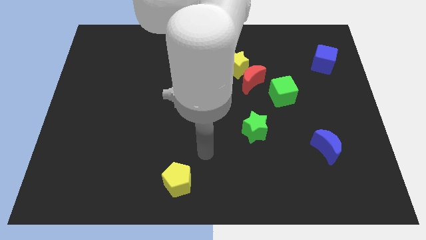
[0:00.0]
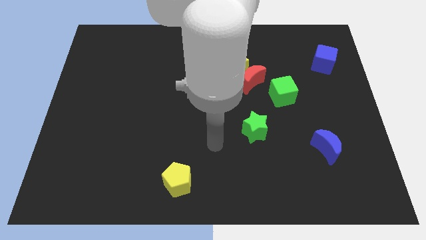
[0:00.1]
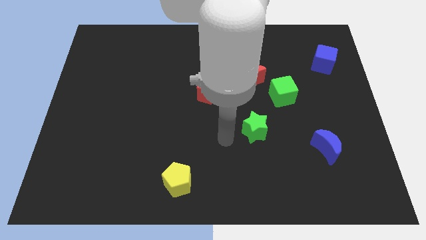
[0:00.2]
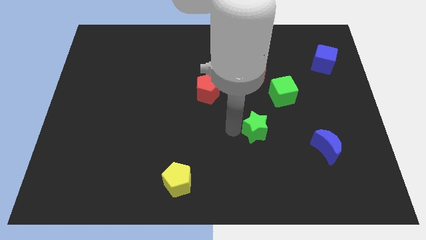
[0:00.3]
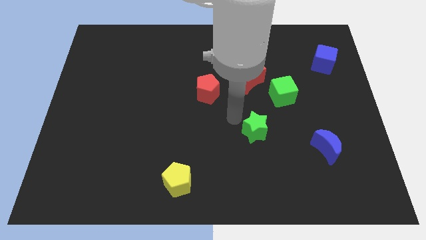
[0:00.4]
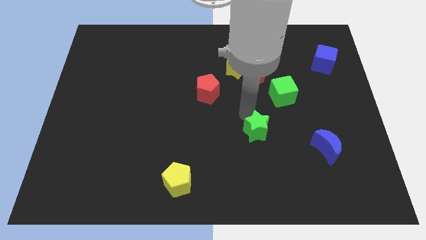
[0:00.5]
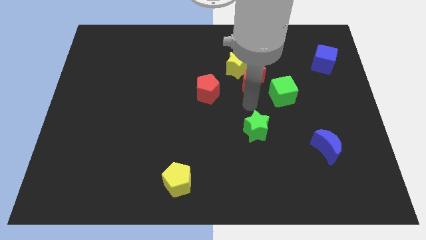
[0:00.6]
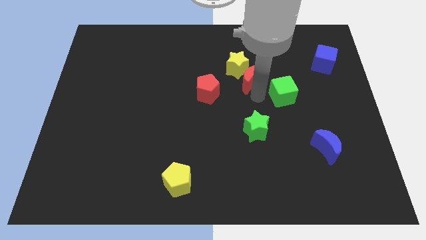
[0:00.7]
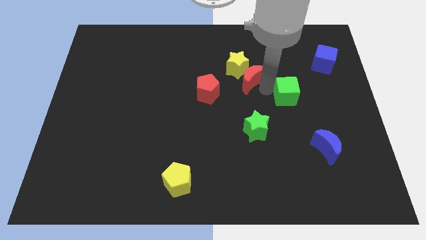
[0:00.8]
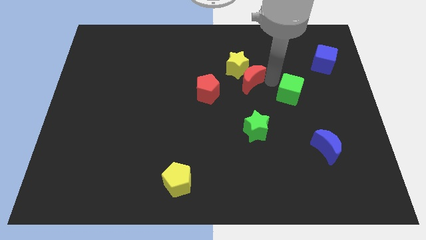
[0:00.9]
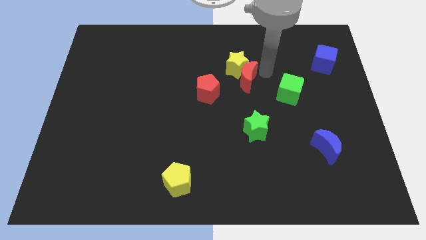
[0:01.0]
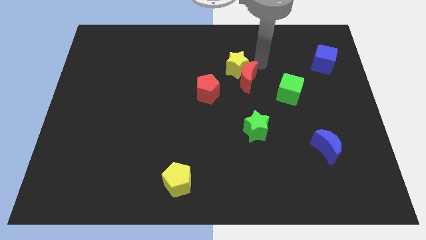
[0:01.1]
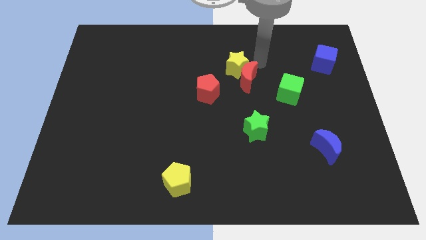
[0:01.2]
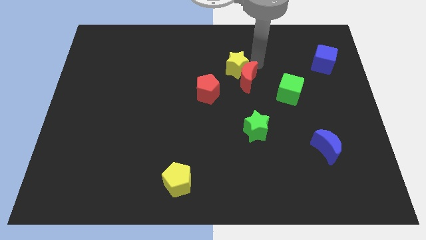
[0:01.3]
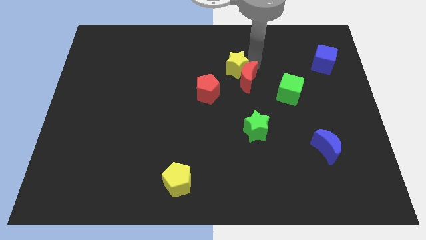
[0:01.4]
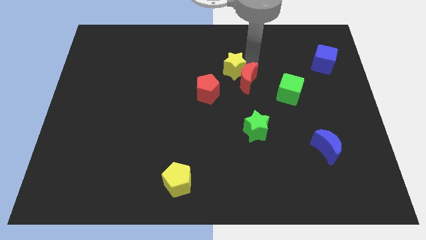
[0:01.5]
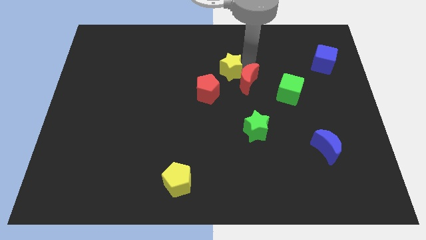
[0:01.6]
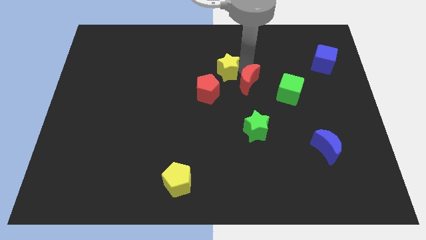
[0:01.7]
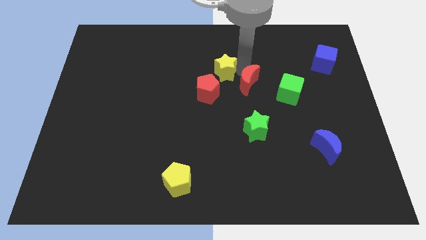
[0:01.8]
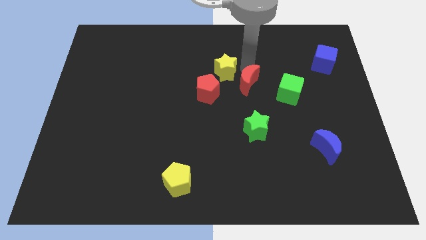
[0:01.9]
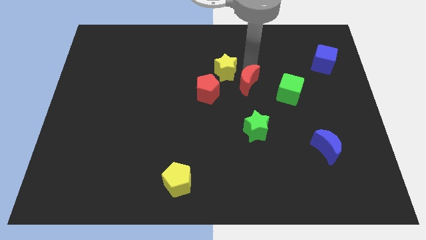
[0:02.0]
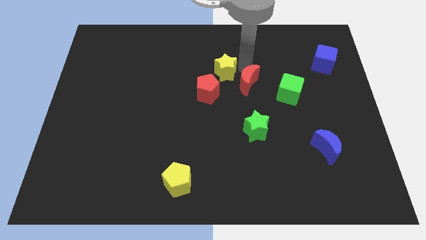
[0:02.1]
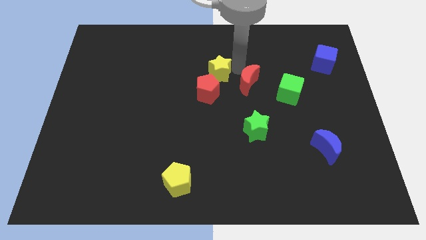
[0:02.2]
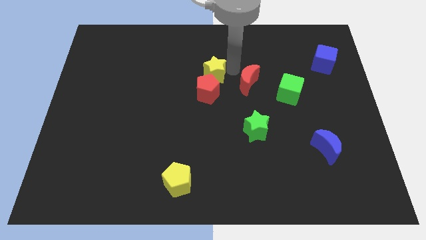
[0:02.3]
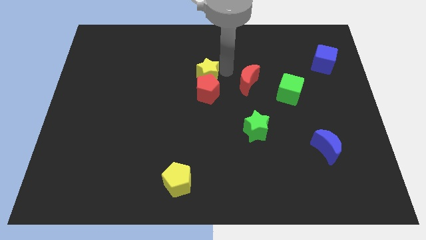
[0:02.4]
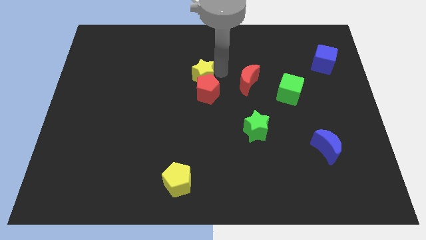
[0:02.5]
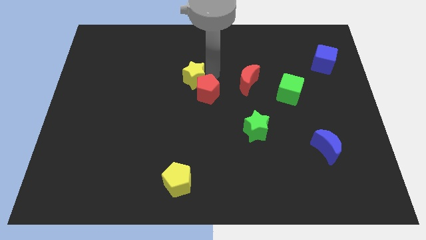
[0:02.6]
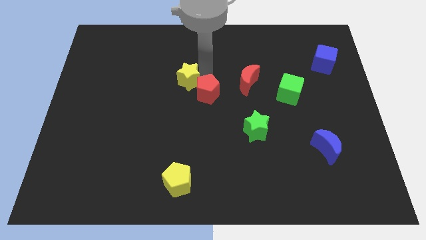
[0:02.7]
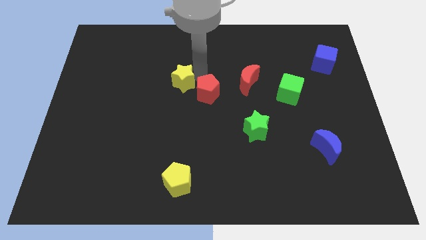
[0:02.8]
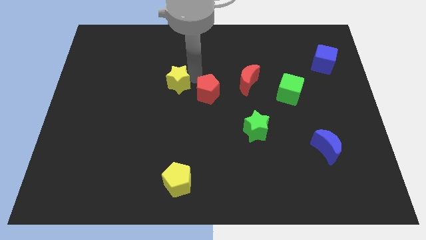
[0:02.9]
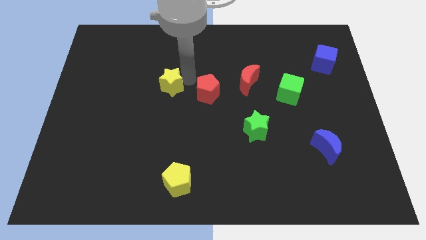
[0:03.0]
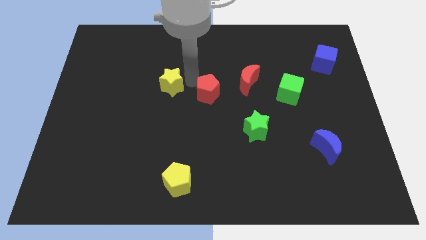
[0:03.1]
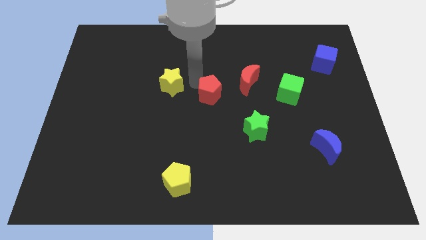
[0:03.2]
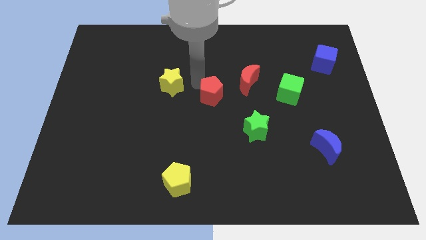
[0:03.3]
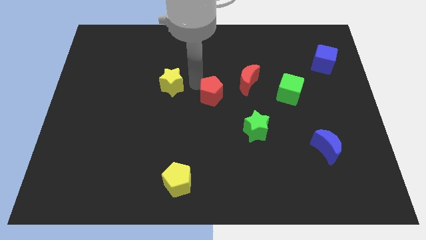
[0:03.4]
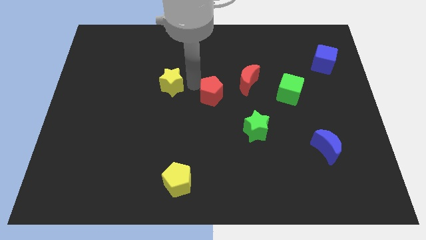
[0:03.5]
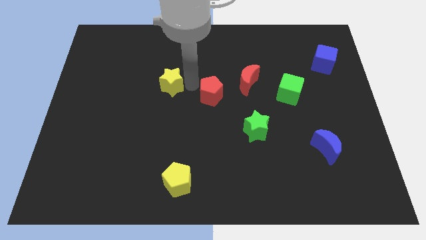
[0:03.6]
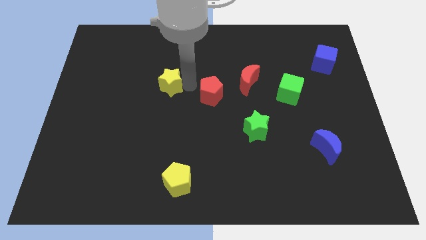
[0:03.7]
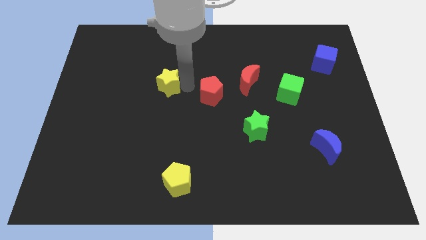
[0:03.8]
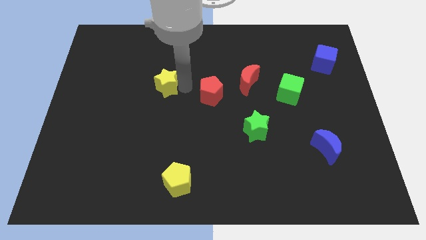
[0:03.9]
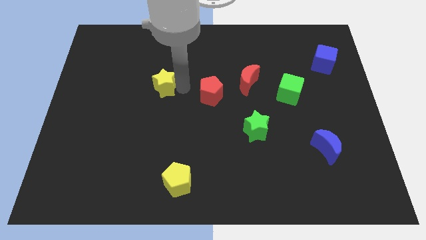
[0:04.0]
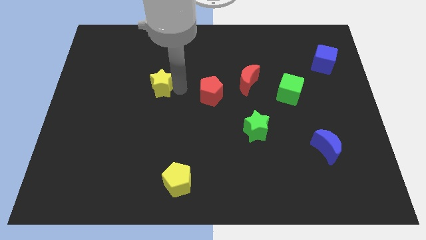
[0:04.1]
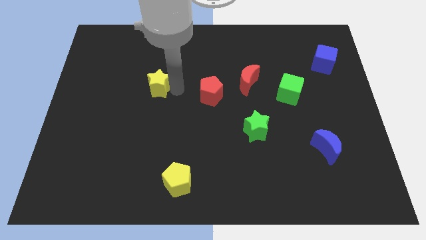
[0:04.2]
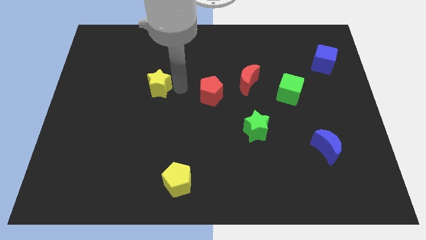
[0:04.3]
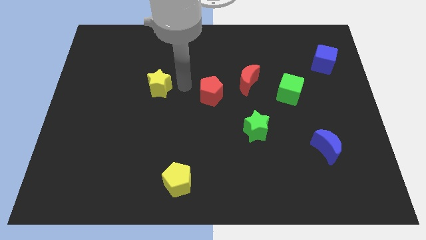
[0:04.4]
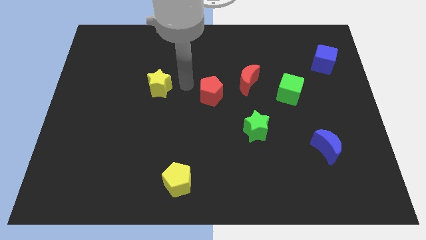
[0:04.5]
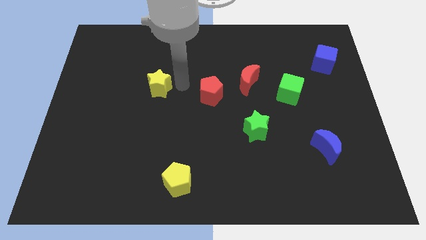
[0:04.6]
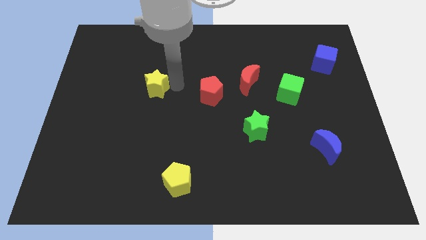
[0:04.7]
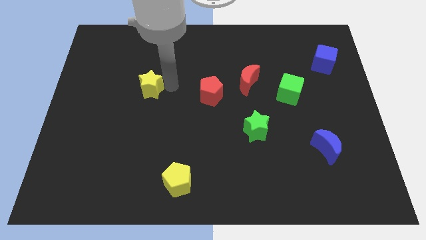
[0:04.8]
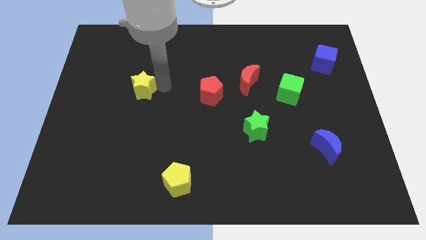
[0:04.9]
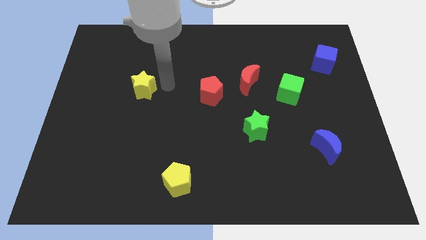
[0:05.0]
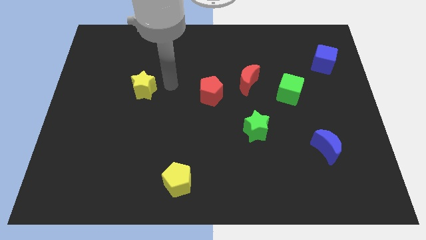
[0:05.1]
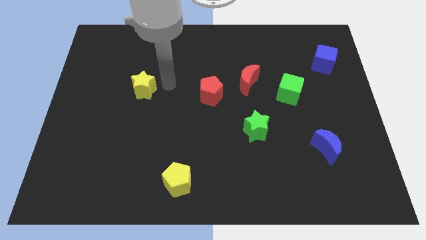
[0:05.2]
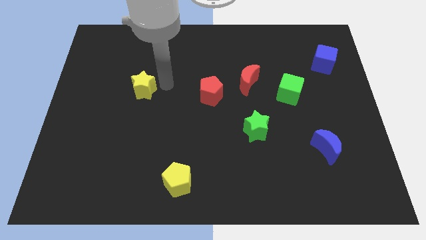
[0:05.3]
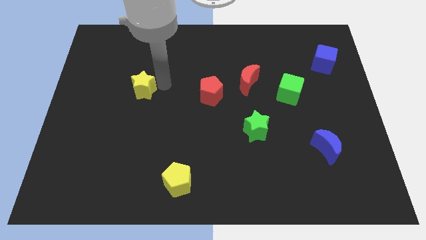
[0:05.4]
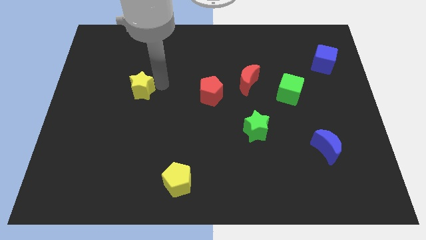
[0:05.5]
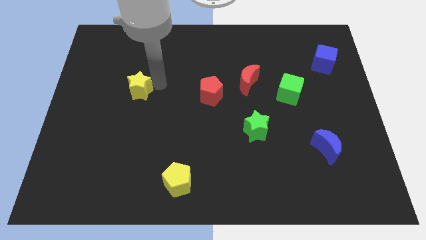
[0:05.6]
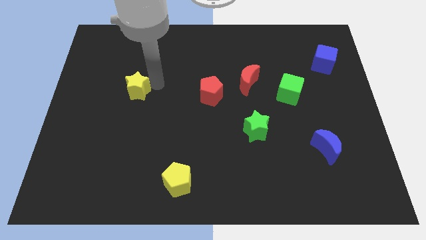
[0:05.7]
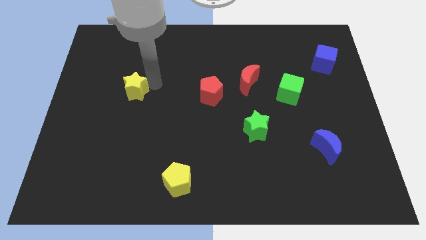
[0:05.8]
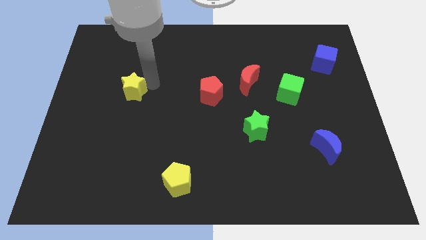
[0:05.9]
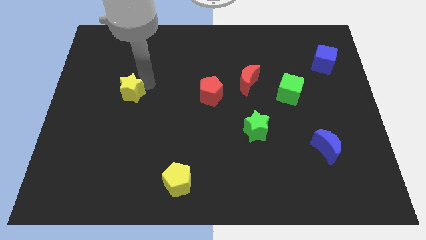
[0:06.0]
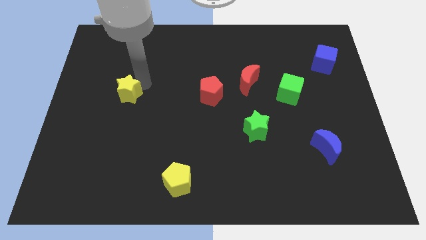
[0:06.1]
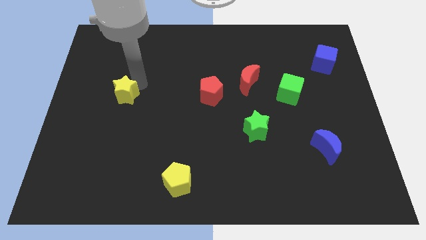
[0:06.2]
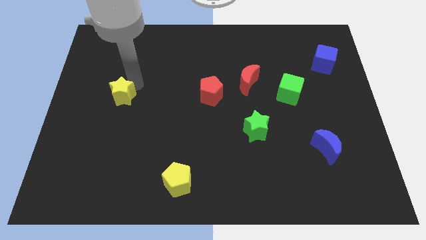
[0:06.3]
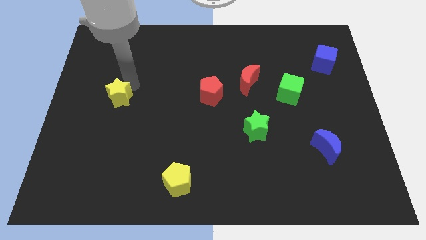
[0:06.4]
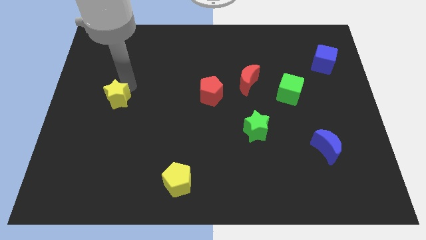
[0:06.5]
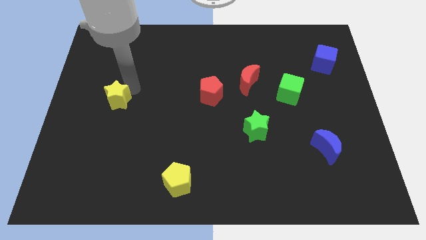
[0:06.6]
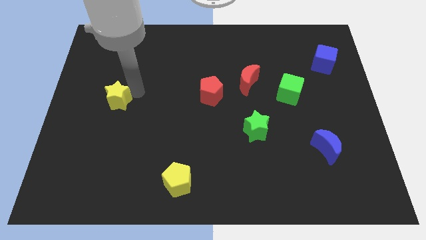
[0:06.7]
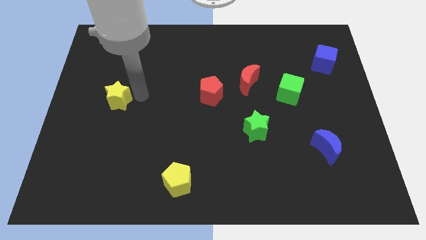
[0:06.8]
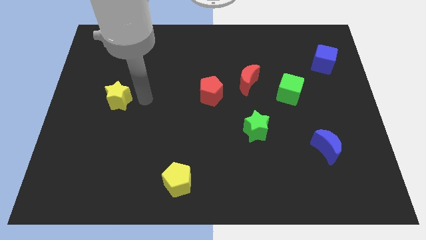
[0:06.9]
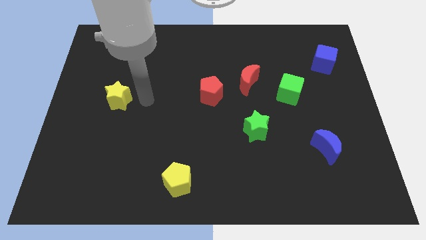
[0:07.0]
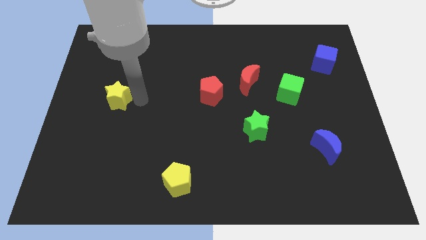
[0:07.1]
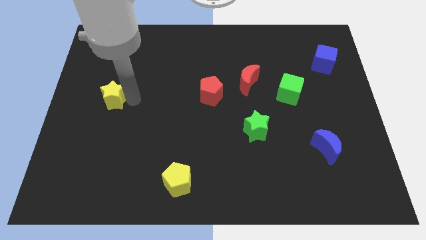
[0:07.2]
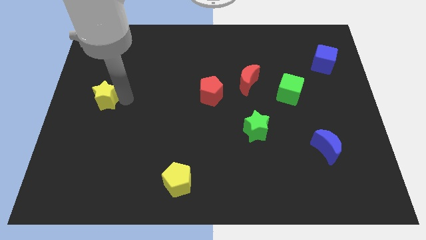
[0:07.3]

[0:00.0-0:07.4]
move the yellow star to the left side of the board
